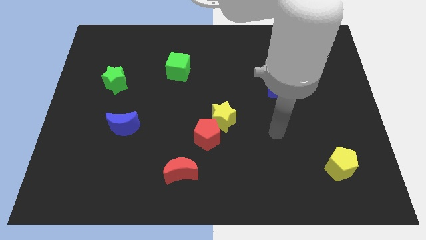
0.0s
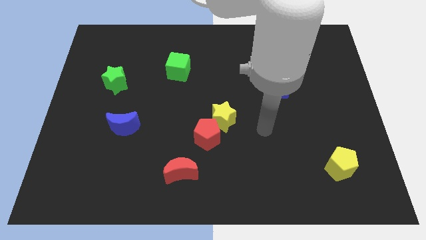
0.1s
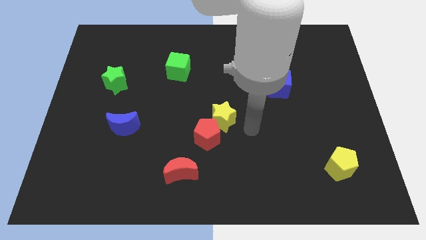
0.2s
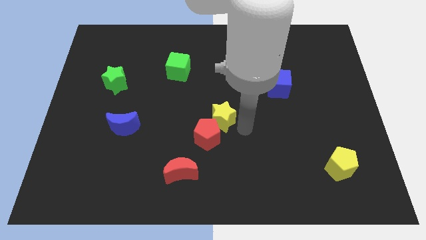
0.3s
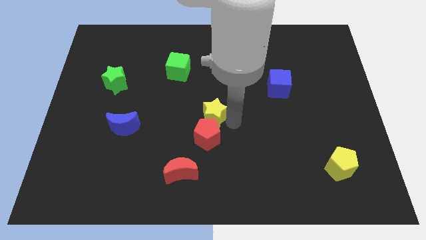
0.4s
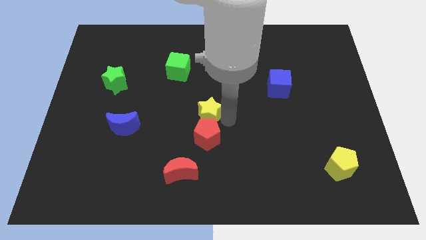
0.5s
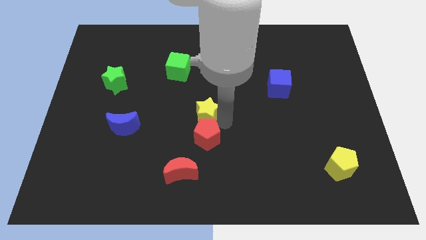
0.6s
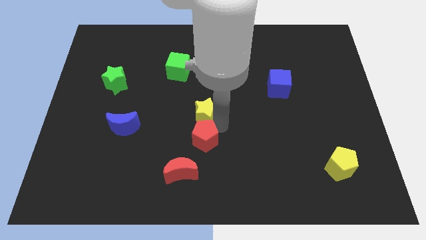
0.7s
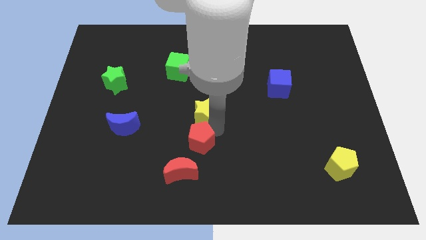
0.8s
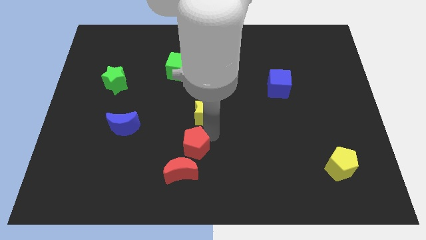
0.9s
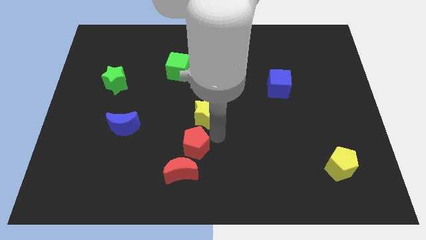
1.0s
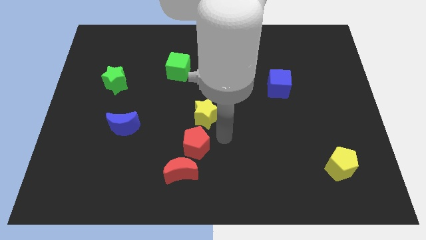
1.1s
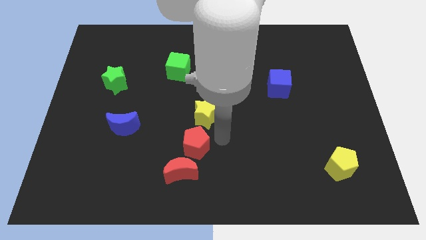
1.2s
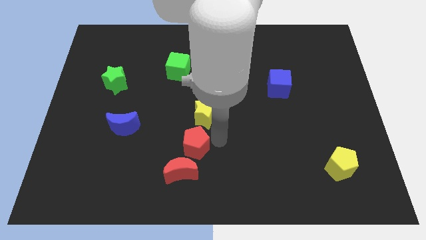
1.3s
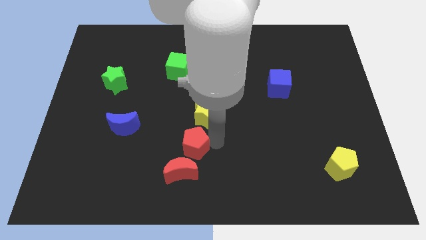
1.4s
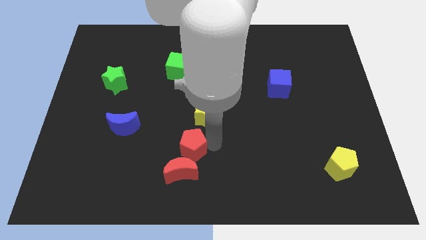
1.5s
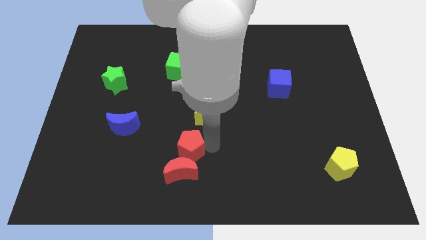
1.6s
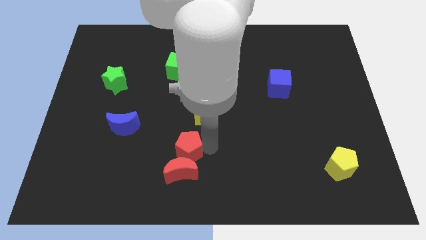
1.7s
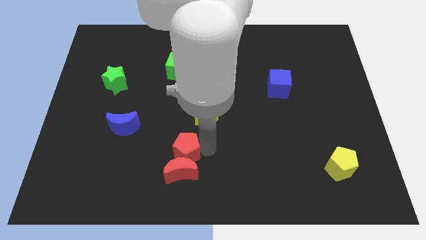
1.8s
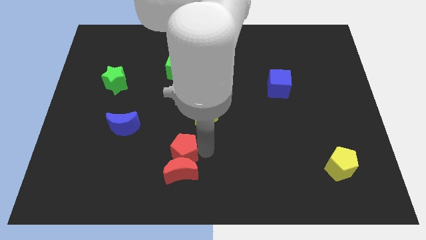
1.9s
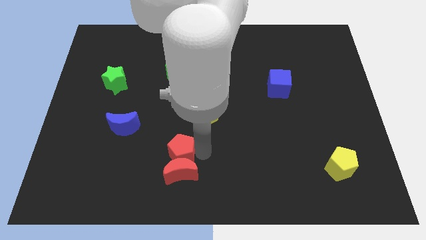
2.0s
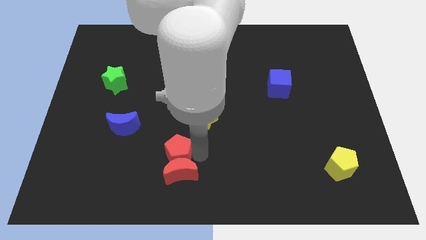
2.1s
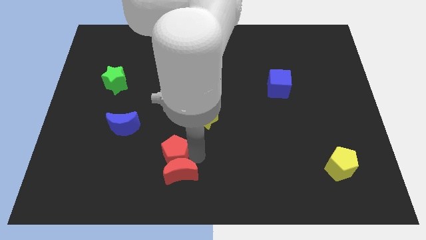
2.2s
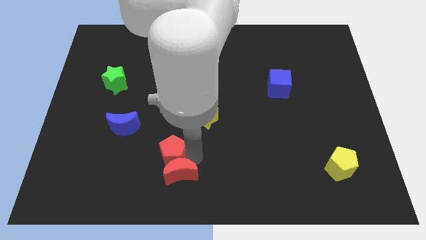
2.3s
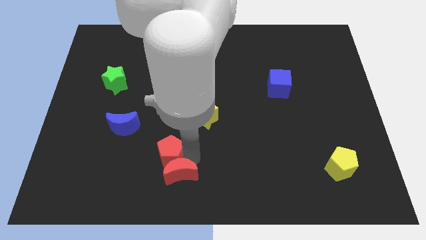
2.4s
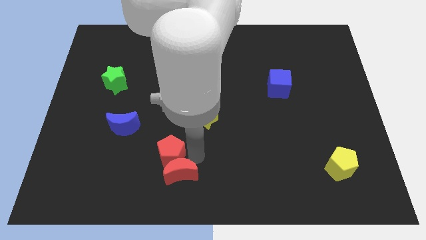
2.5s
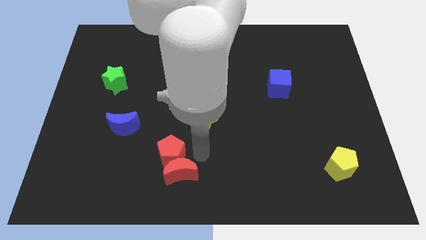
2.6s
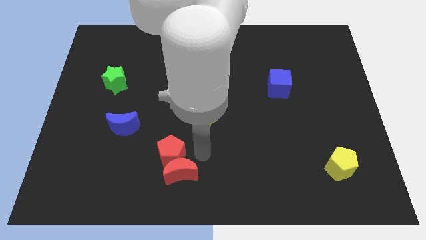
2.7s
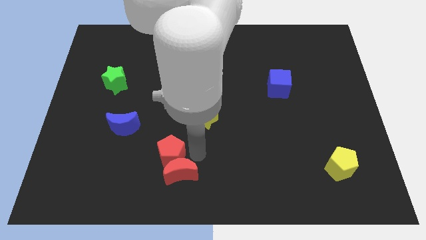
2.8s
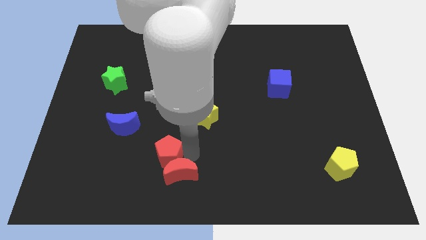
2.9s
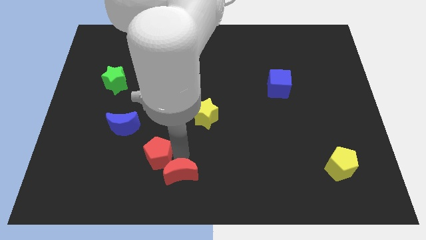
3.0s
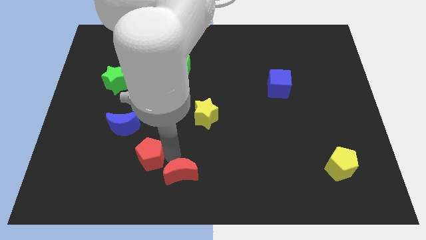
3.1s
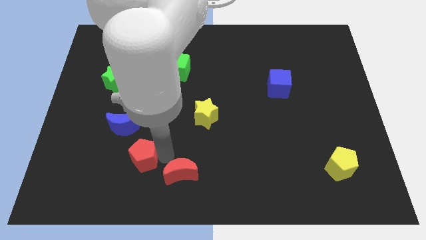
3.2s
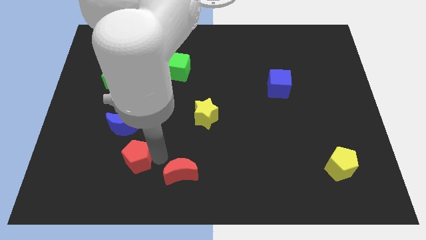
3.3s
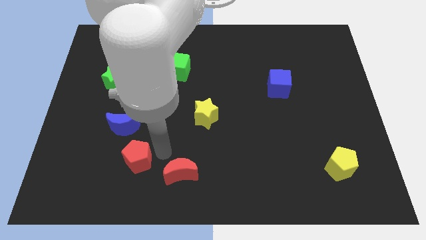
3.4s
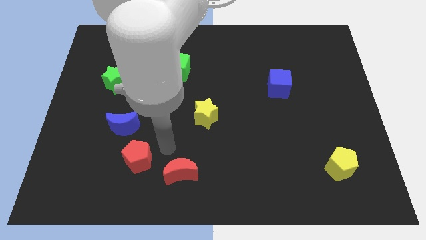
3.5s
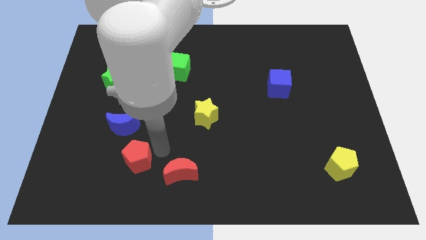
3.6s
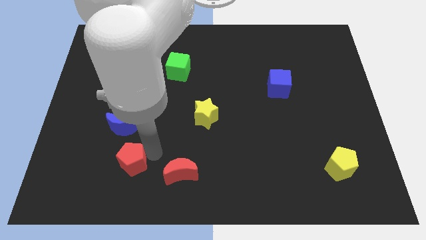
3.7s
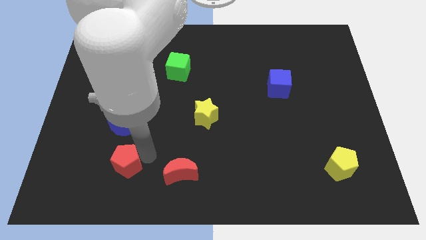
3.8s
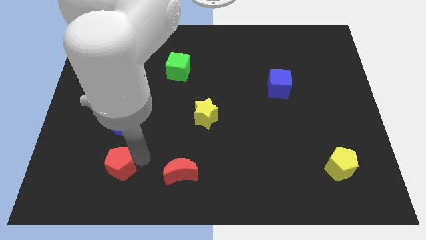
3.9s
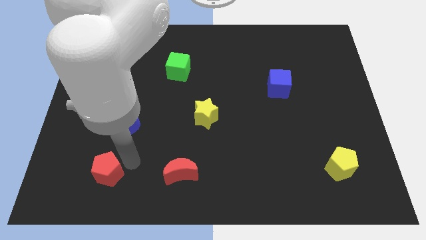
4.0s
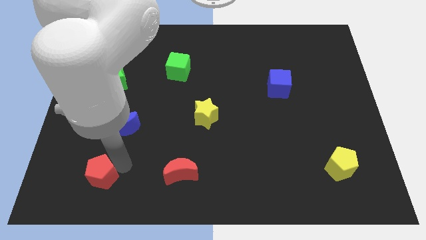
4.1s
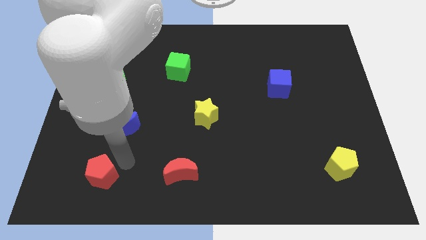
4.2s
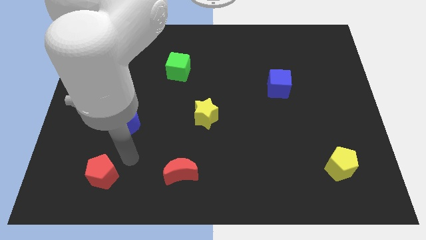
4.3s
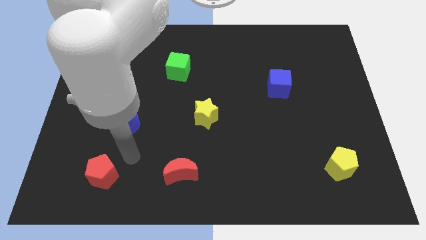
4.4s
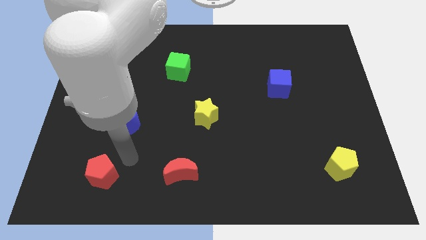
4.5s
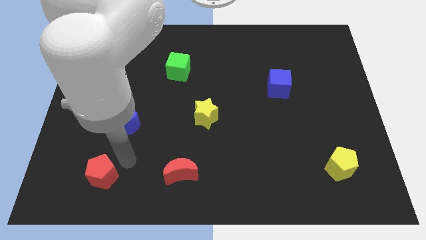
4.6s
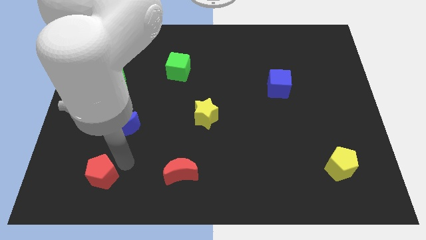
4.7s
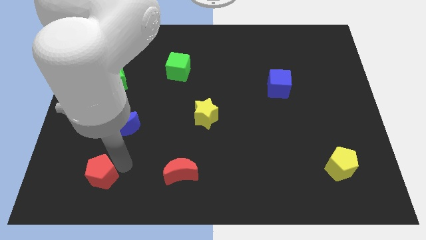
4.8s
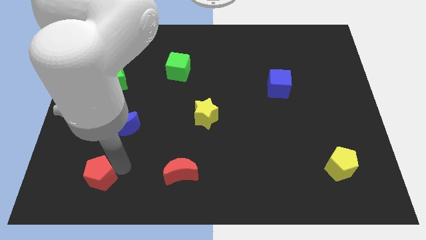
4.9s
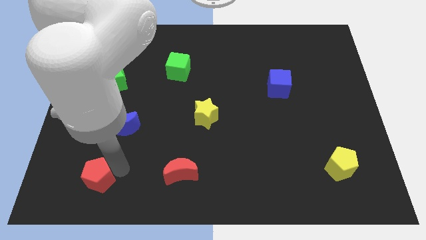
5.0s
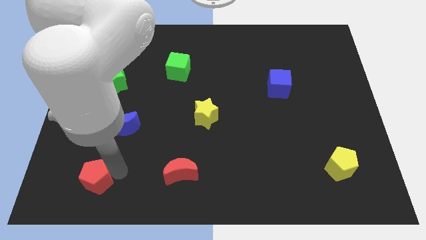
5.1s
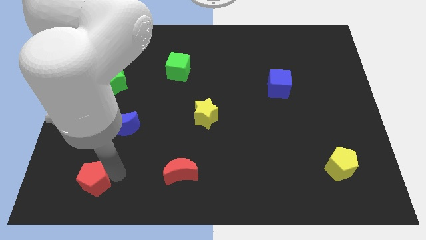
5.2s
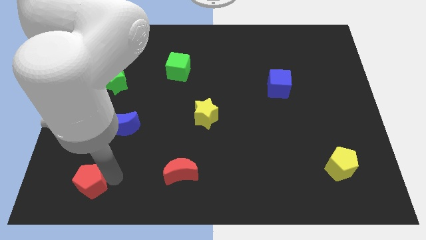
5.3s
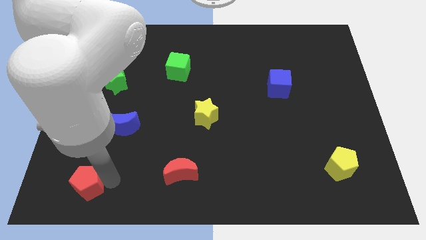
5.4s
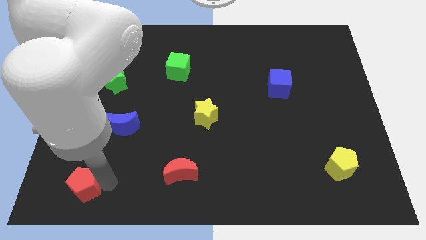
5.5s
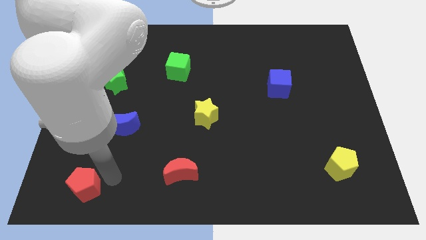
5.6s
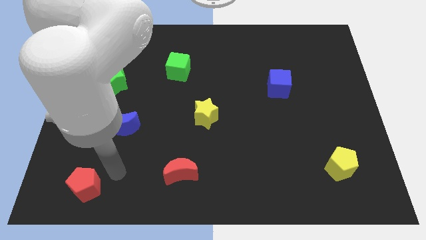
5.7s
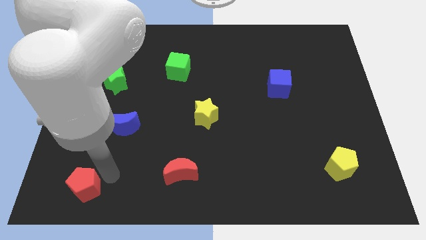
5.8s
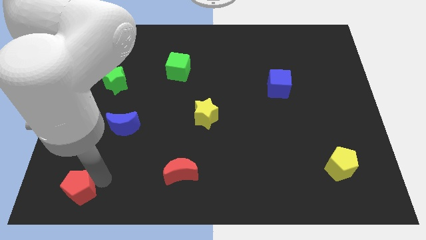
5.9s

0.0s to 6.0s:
move the red pentagon to the lower left corner
